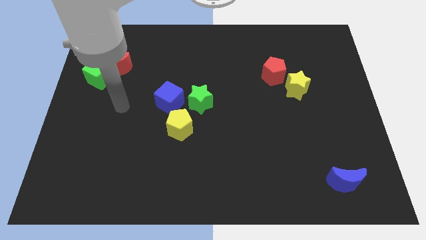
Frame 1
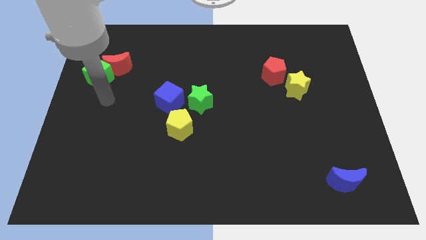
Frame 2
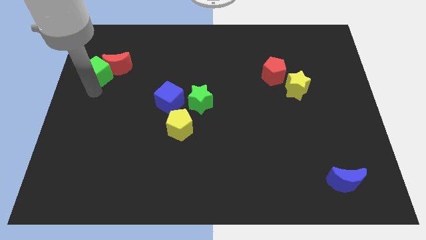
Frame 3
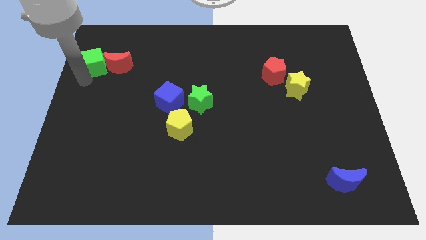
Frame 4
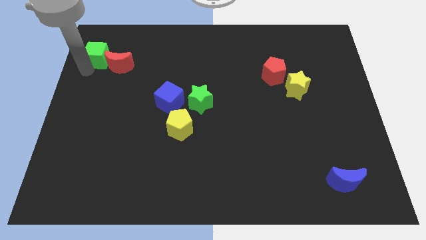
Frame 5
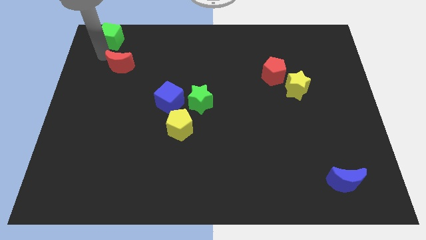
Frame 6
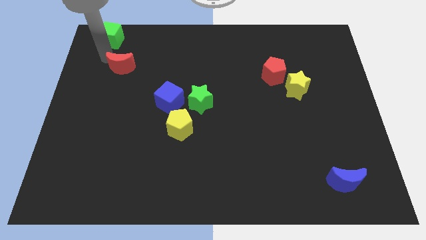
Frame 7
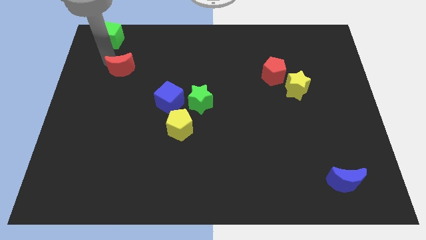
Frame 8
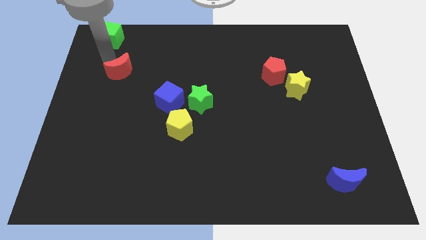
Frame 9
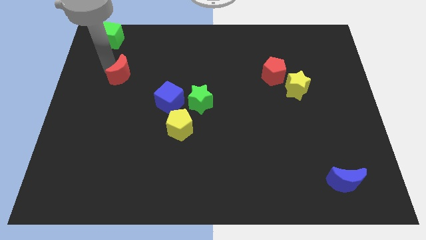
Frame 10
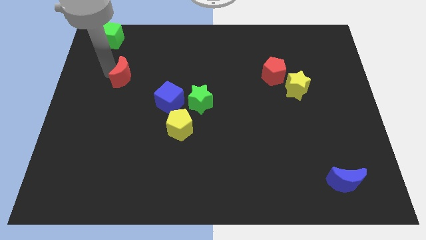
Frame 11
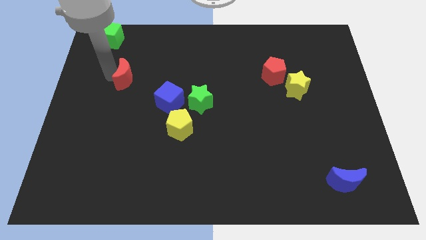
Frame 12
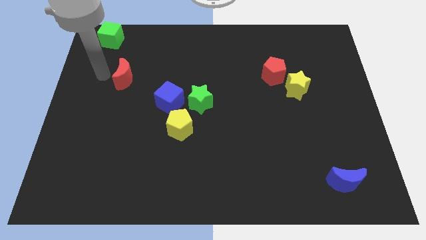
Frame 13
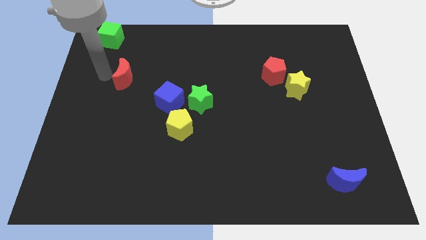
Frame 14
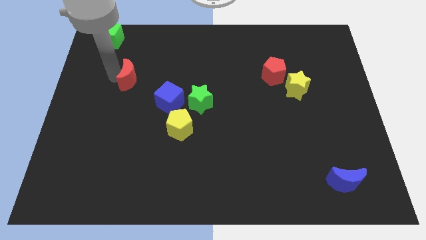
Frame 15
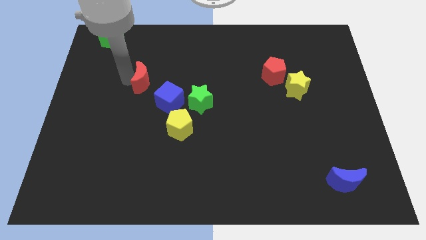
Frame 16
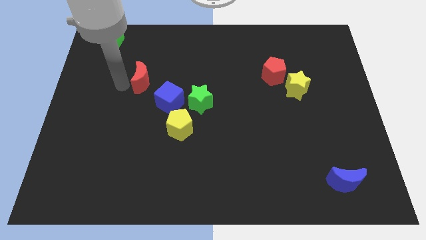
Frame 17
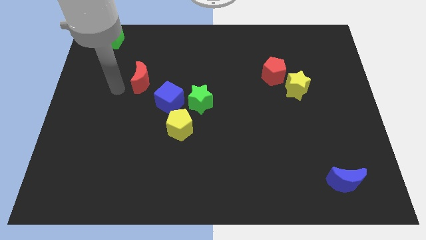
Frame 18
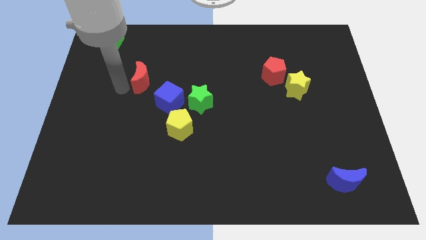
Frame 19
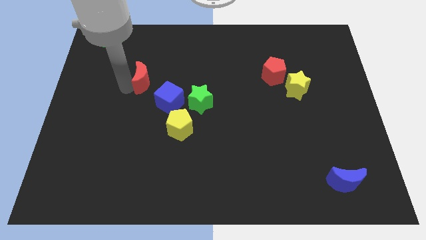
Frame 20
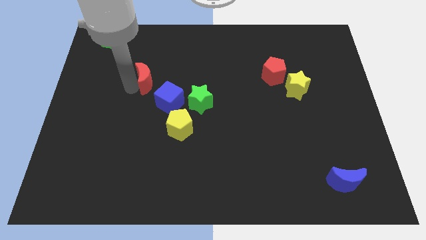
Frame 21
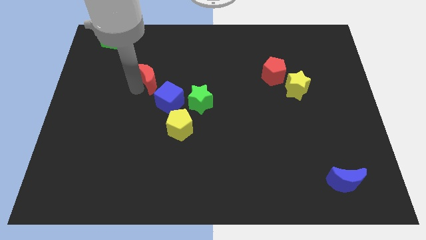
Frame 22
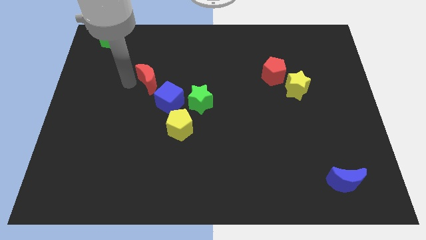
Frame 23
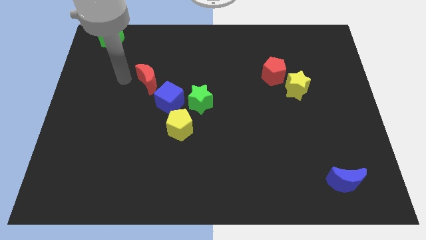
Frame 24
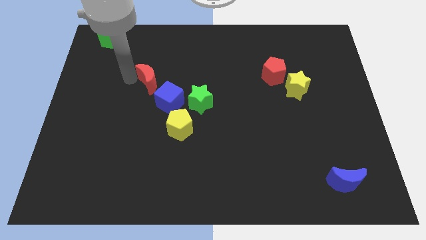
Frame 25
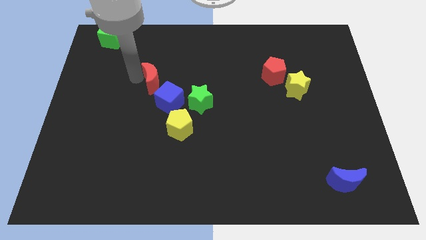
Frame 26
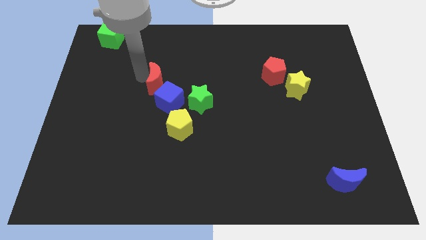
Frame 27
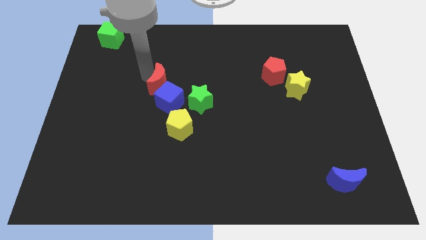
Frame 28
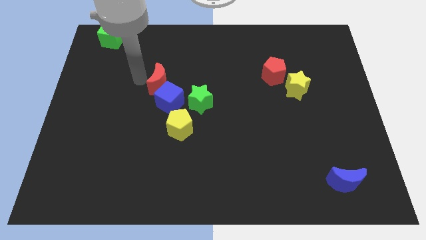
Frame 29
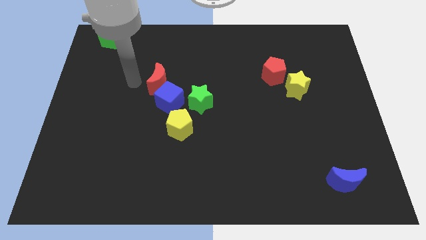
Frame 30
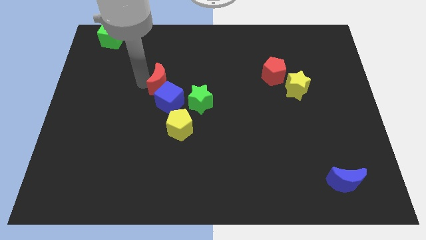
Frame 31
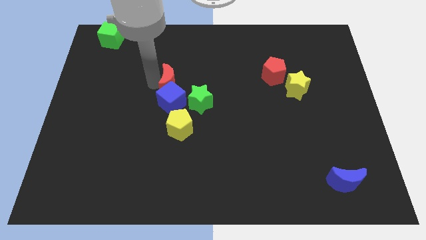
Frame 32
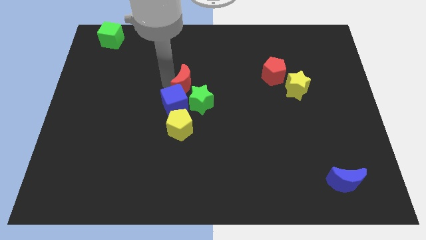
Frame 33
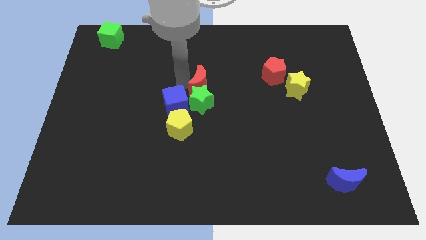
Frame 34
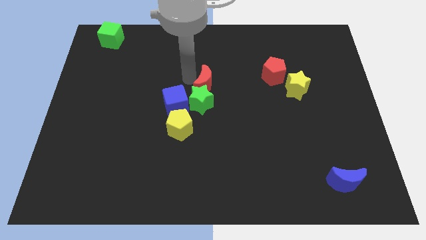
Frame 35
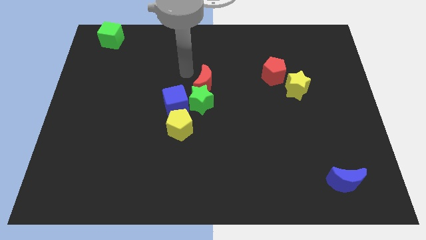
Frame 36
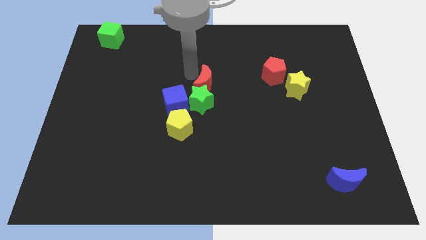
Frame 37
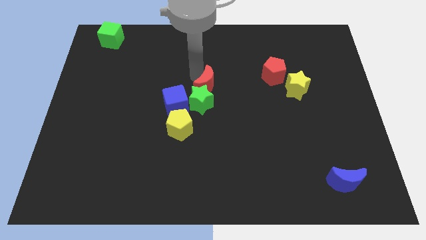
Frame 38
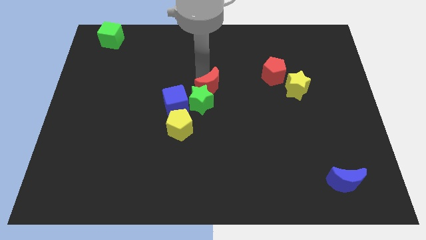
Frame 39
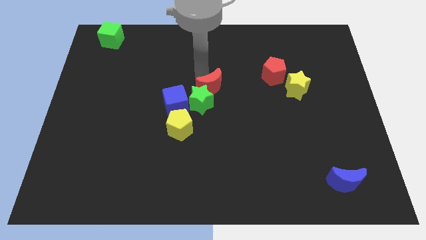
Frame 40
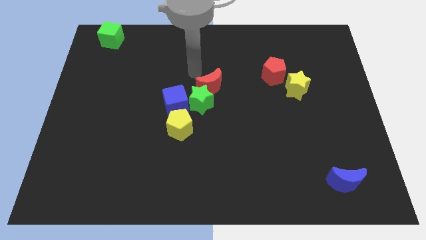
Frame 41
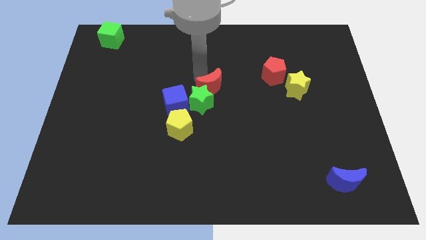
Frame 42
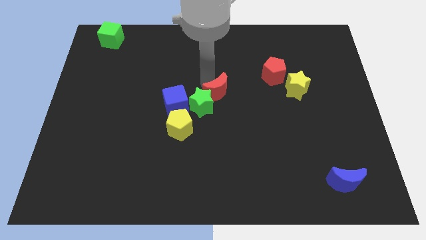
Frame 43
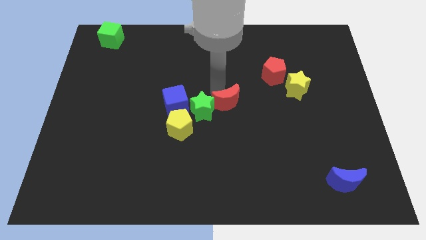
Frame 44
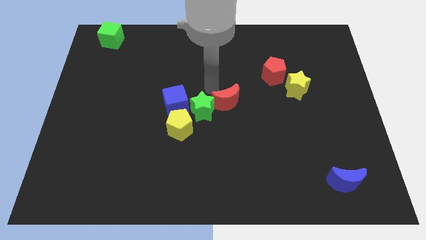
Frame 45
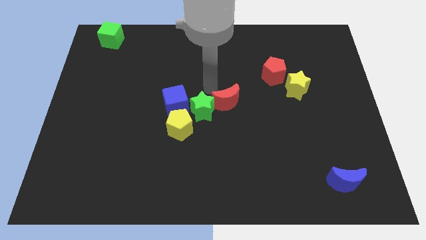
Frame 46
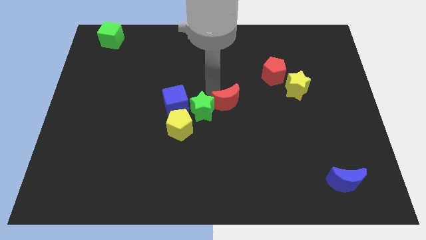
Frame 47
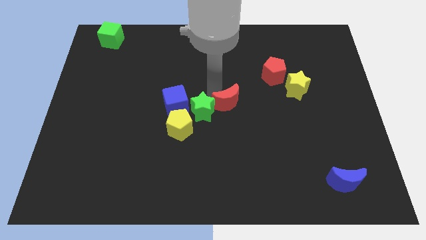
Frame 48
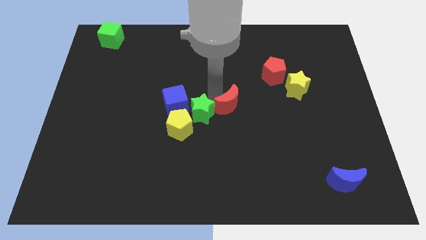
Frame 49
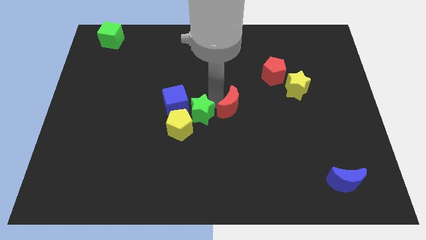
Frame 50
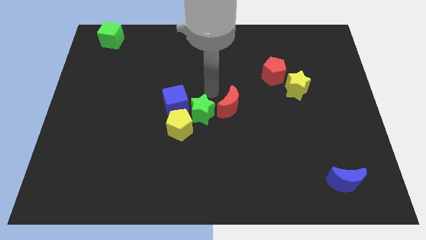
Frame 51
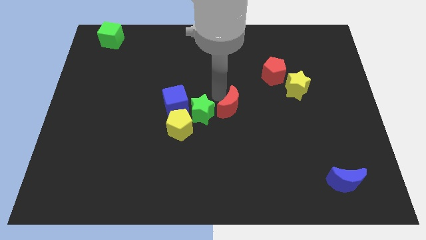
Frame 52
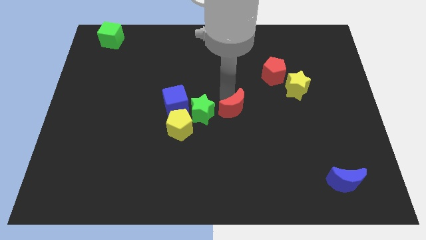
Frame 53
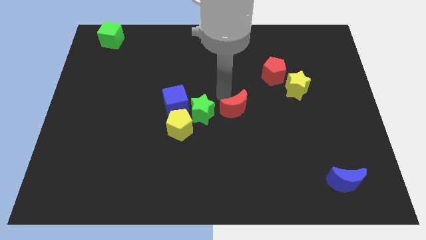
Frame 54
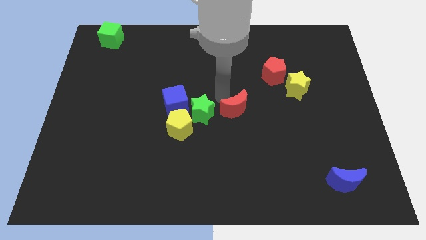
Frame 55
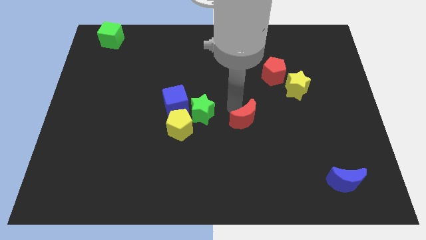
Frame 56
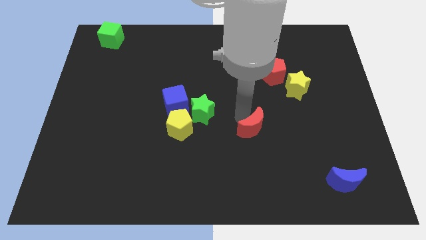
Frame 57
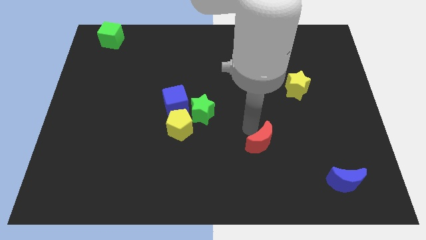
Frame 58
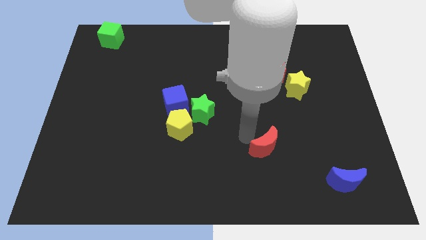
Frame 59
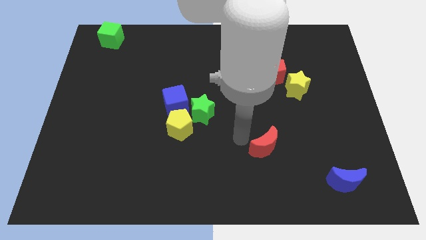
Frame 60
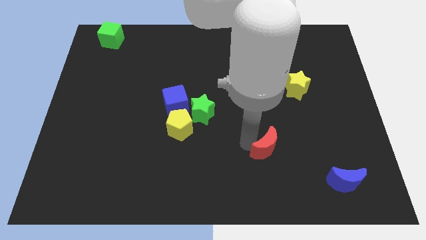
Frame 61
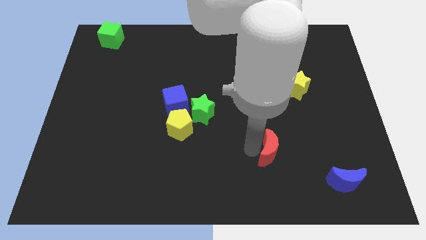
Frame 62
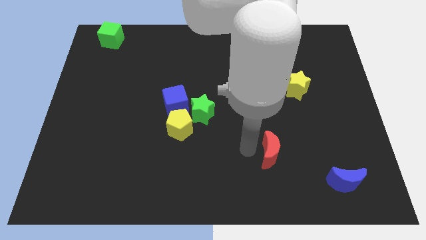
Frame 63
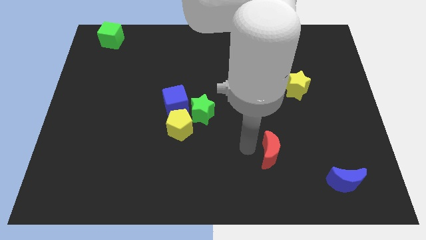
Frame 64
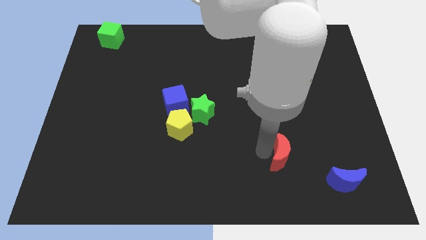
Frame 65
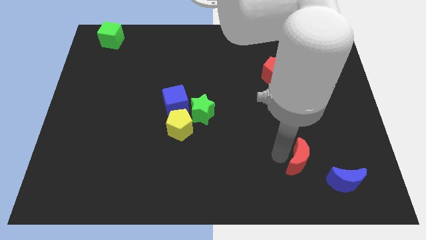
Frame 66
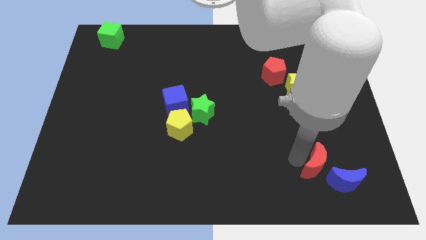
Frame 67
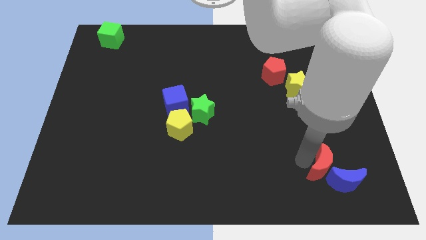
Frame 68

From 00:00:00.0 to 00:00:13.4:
put the red moon next to the blue moon

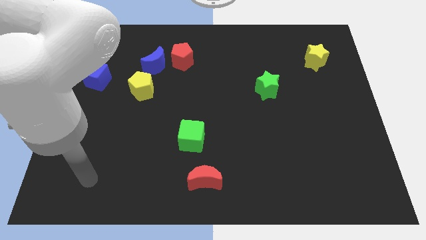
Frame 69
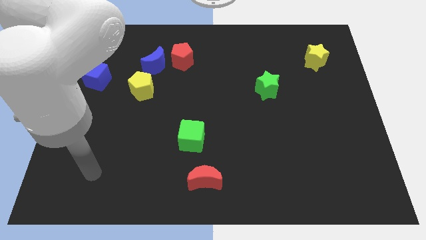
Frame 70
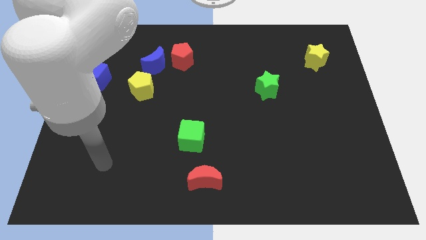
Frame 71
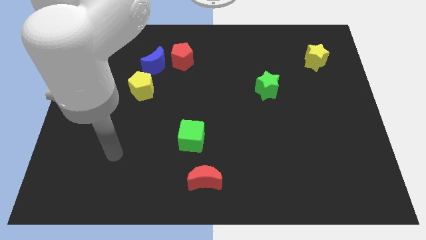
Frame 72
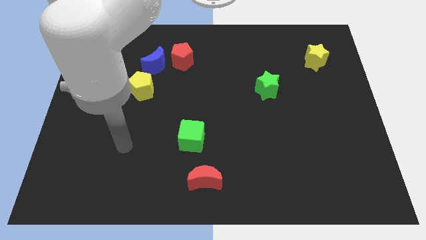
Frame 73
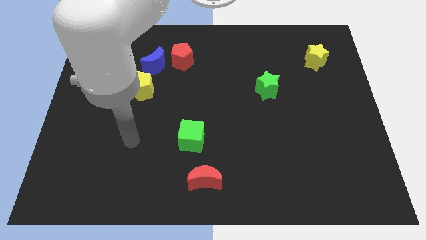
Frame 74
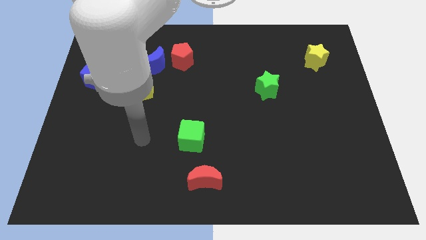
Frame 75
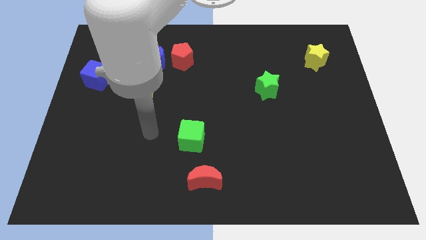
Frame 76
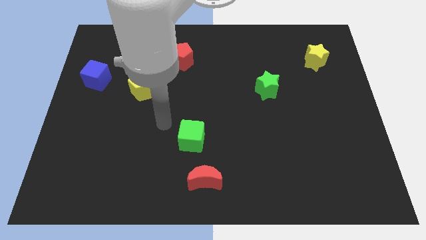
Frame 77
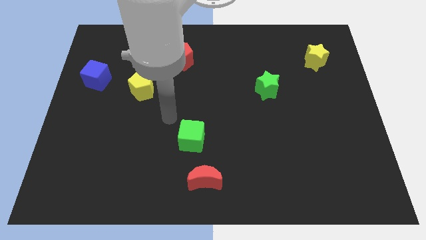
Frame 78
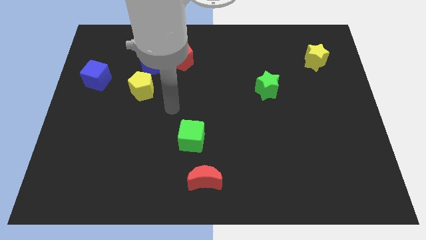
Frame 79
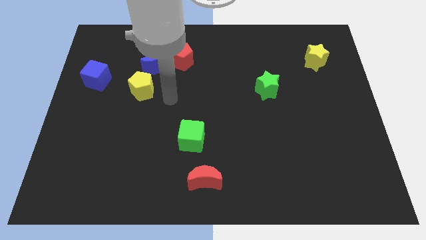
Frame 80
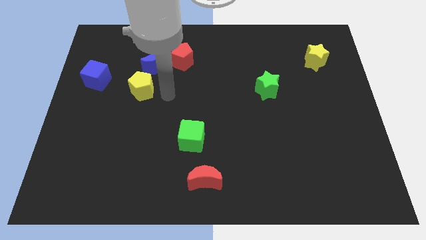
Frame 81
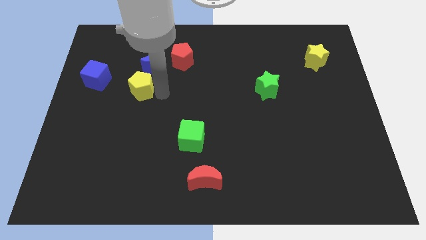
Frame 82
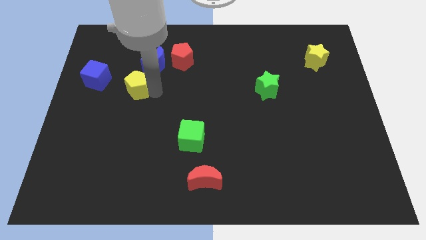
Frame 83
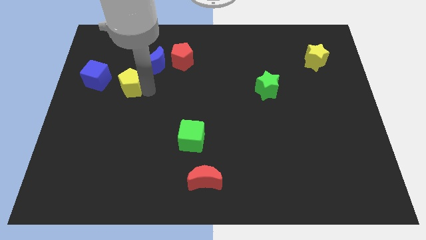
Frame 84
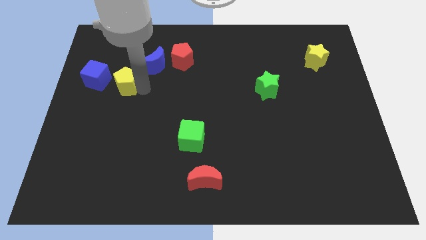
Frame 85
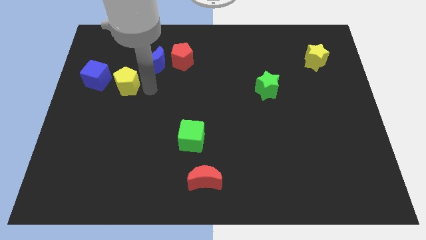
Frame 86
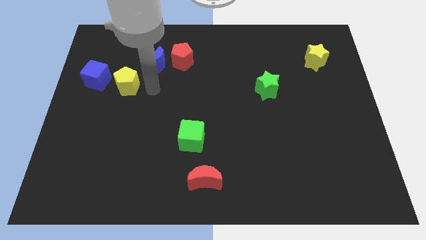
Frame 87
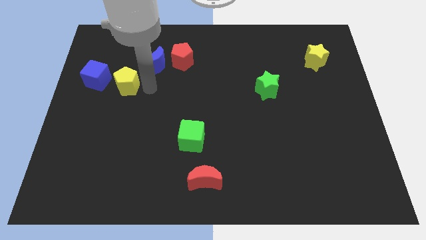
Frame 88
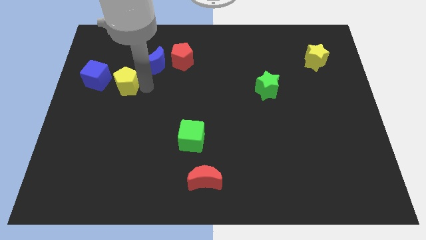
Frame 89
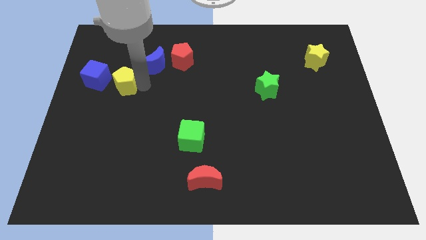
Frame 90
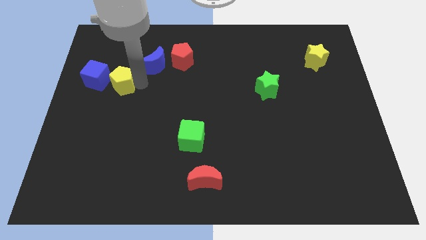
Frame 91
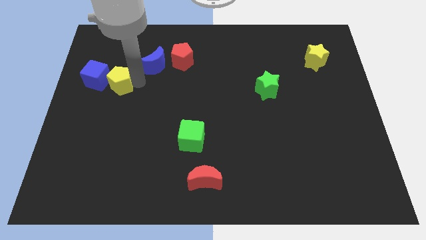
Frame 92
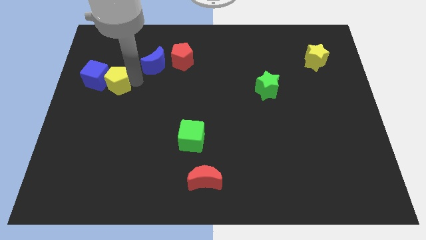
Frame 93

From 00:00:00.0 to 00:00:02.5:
slide the yellow pentagon next to the blue cube
